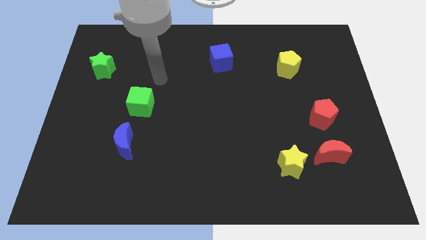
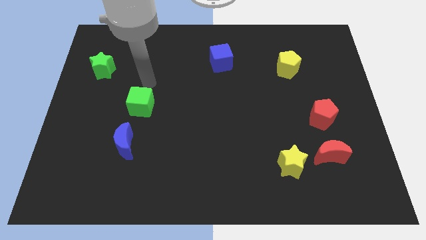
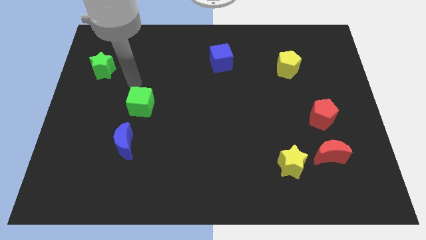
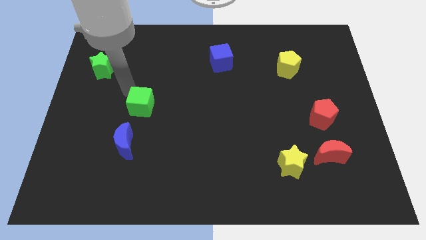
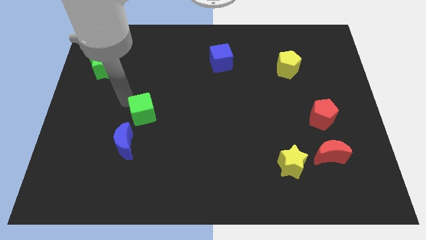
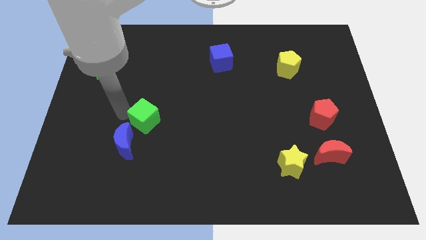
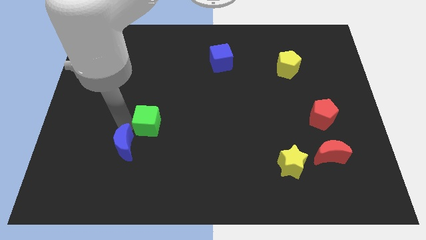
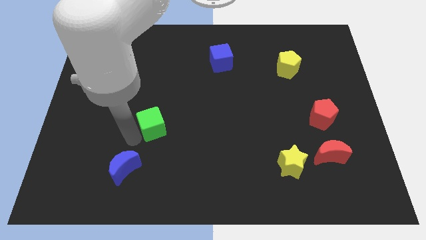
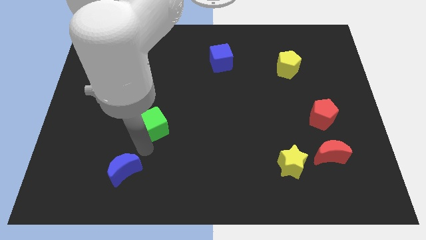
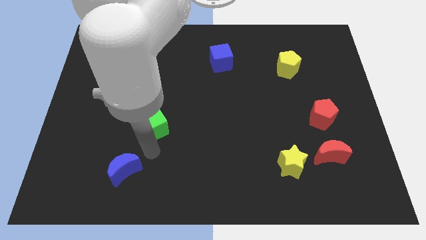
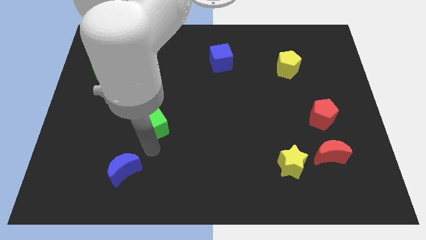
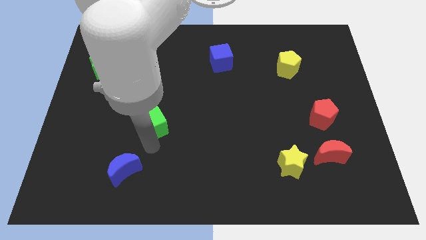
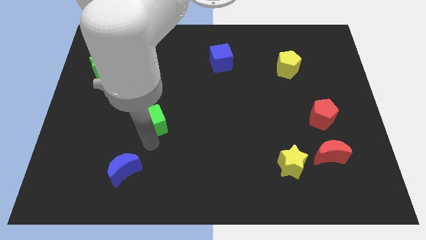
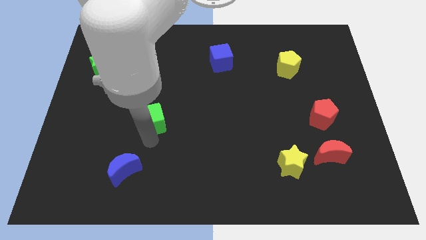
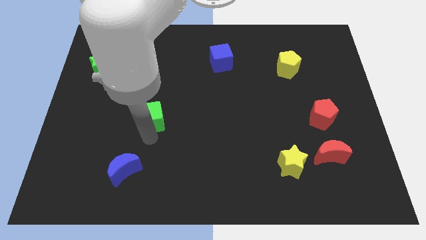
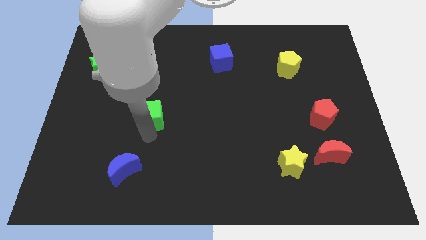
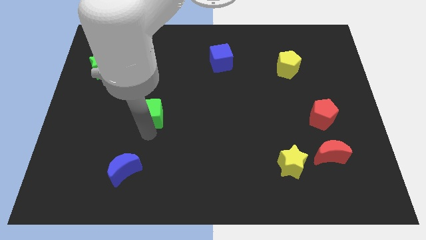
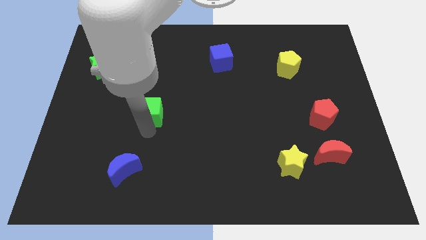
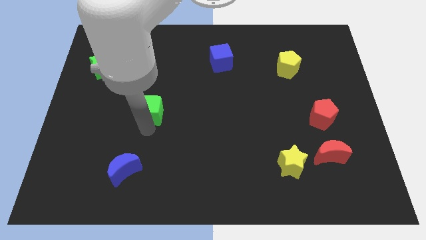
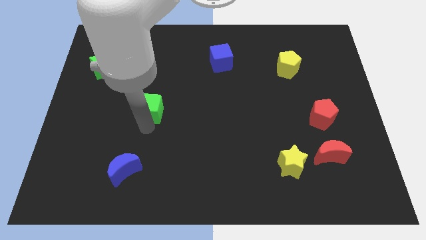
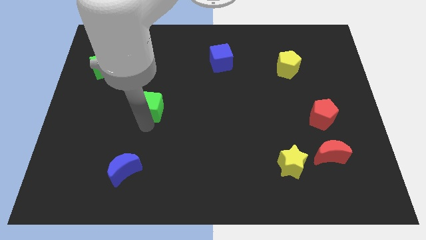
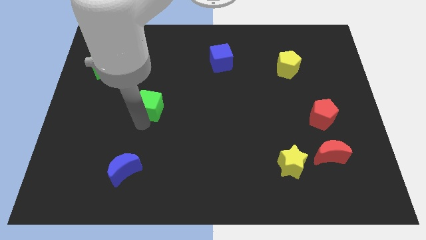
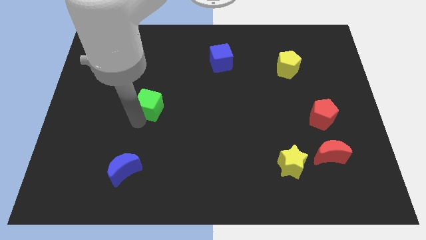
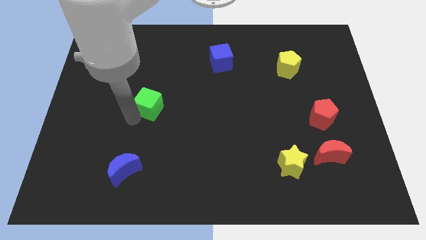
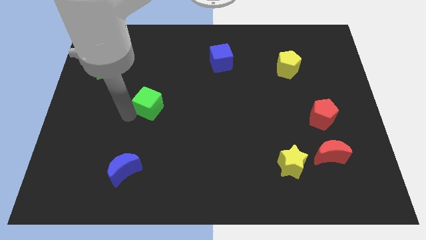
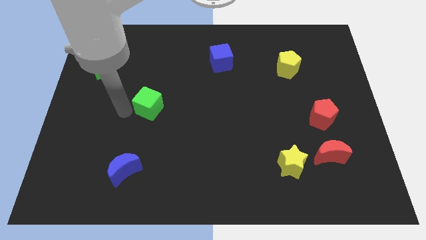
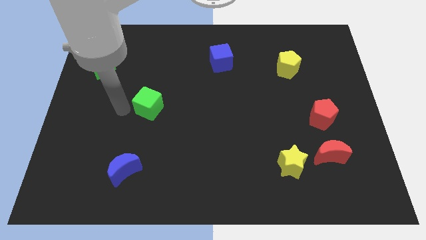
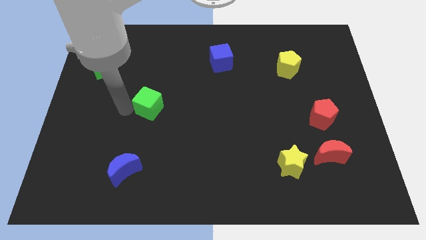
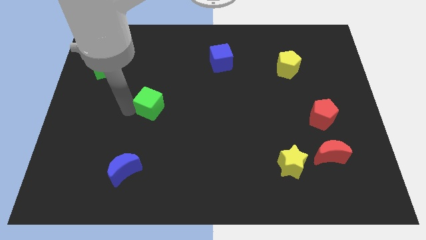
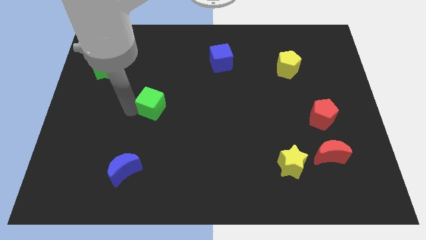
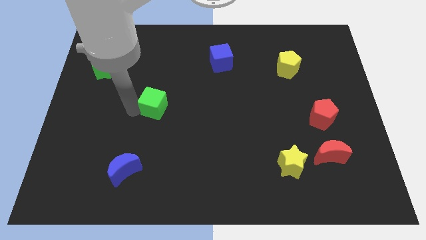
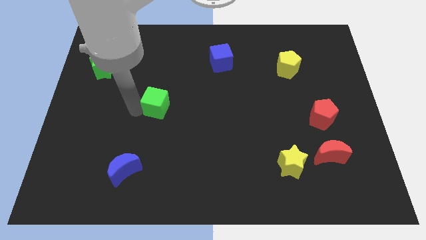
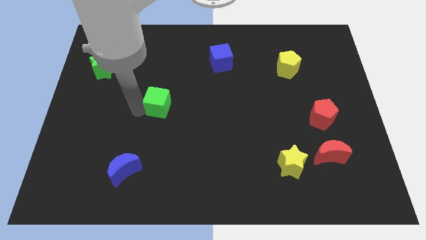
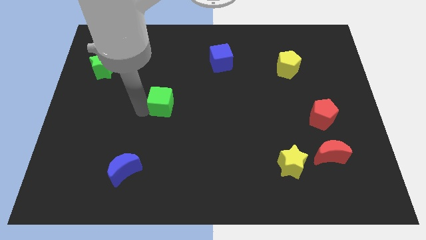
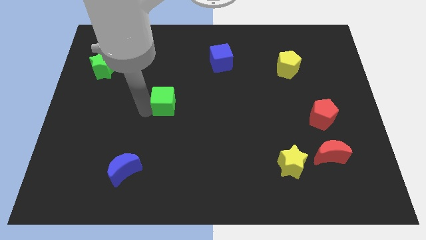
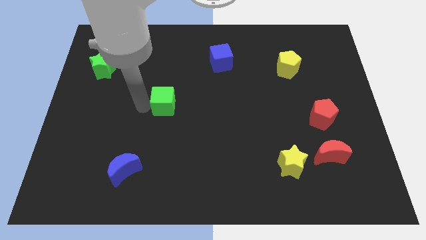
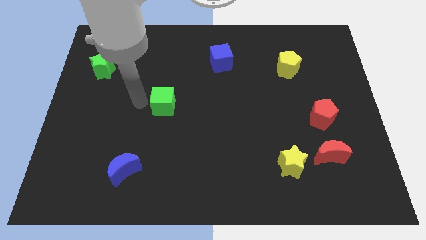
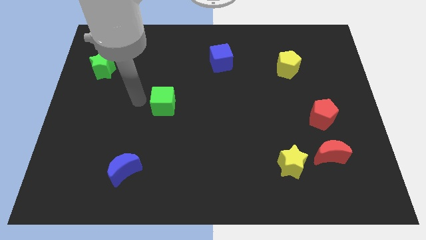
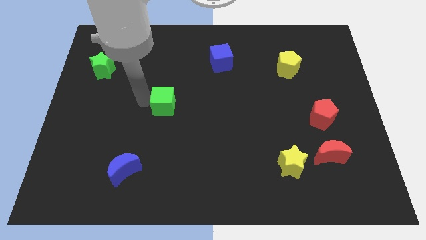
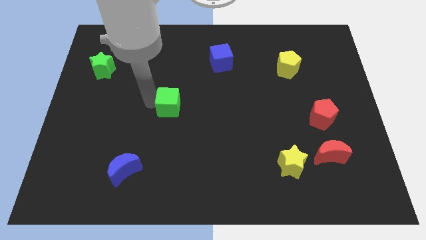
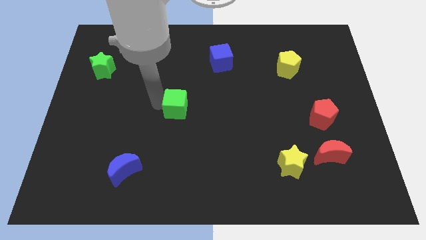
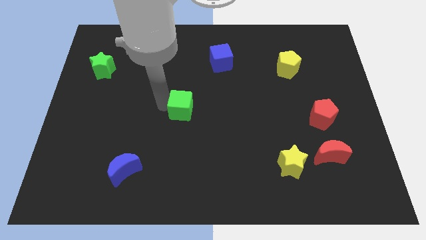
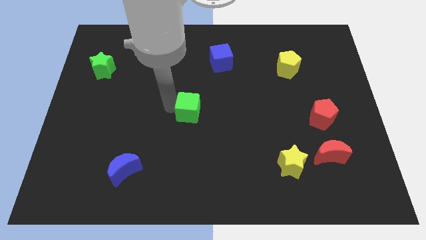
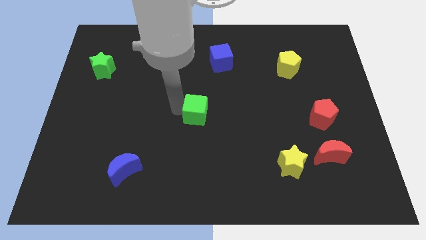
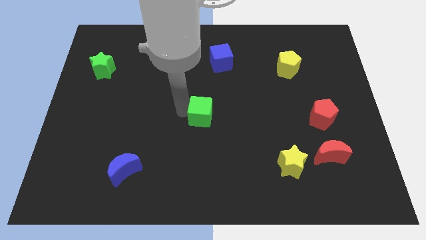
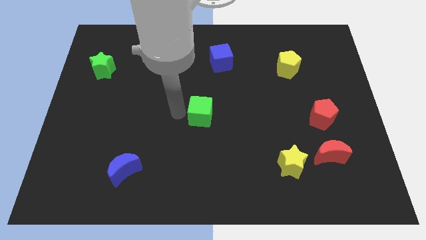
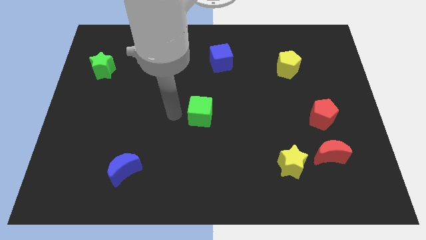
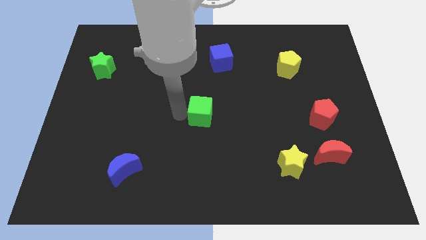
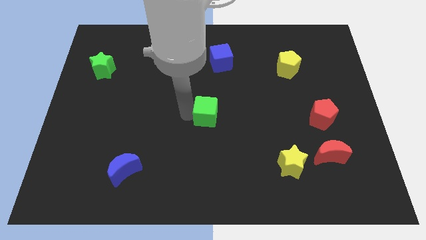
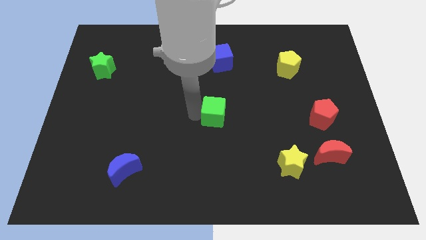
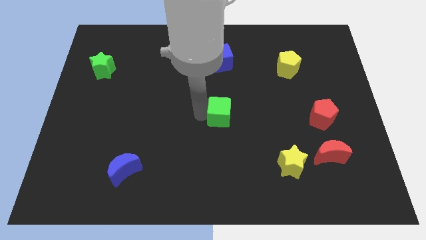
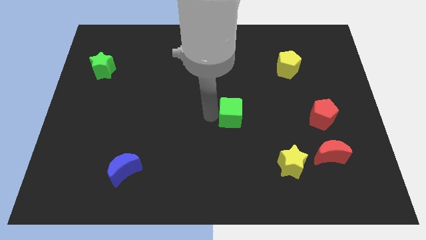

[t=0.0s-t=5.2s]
push the green cube to the right

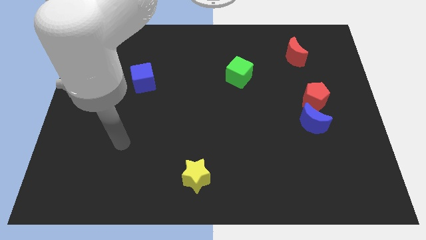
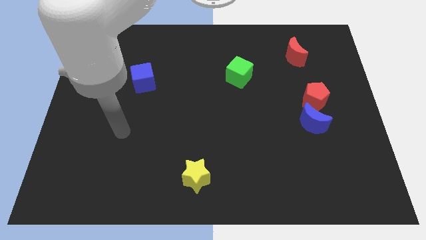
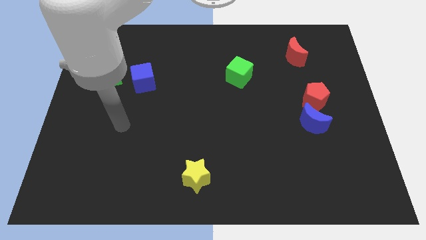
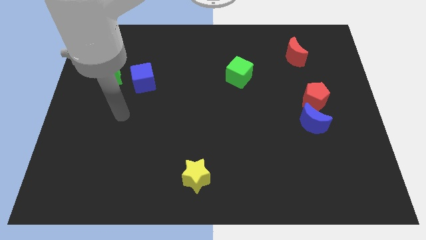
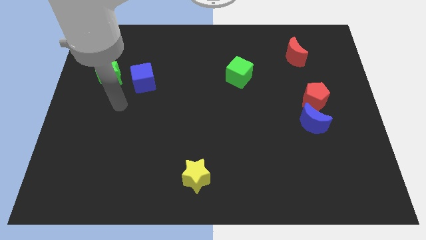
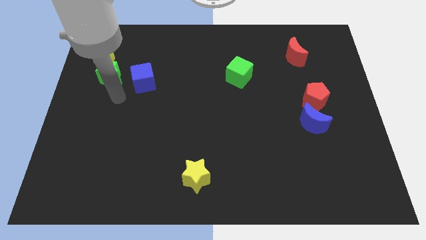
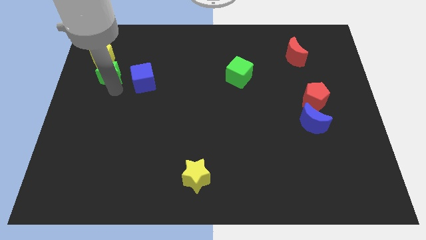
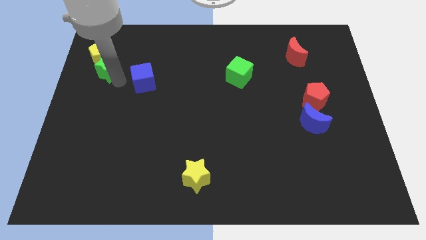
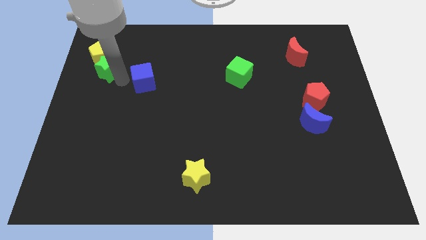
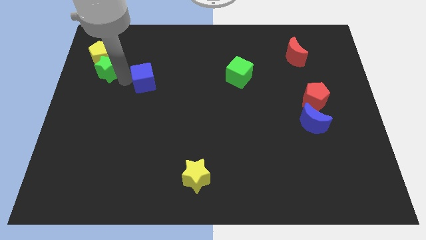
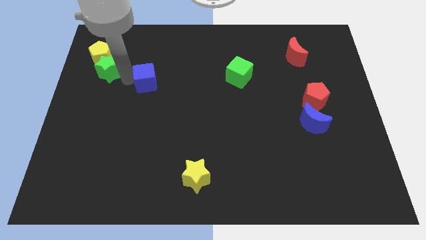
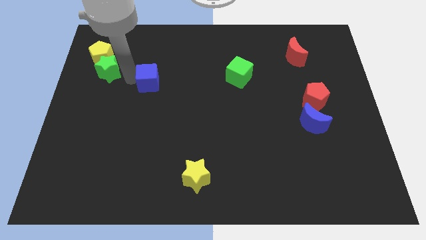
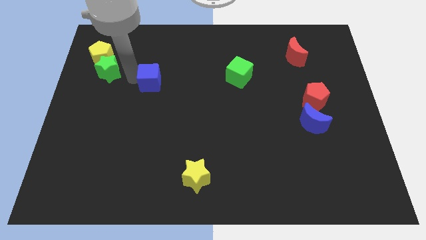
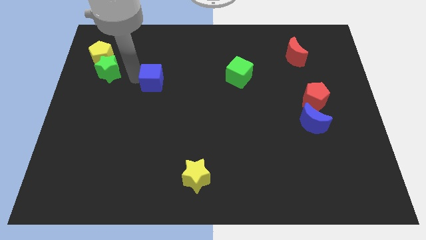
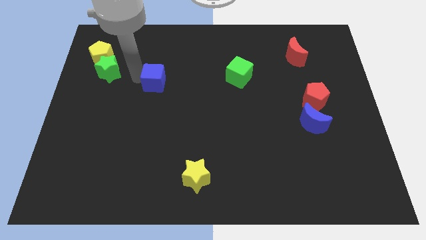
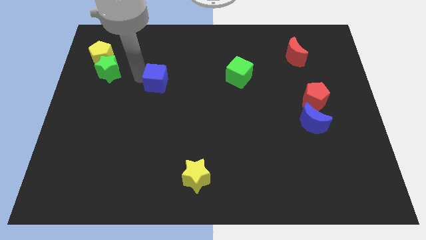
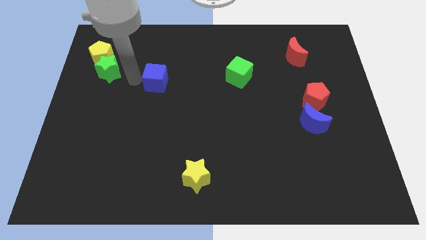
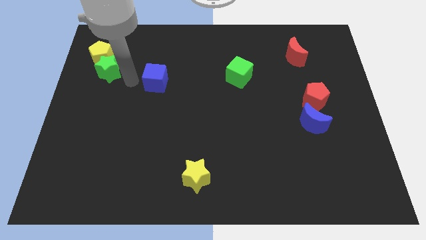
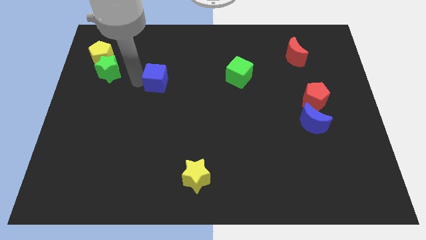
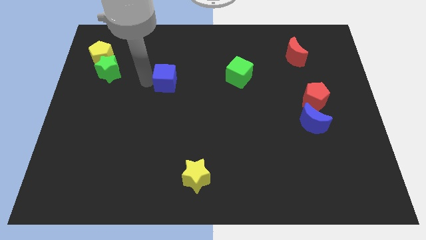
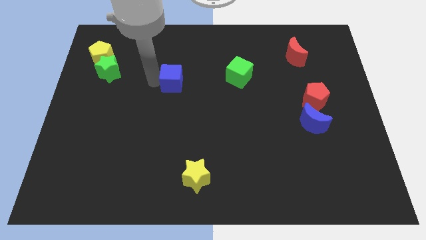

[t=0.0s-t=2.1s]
slightly slide the blue cube to the right

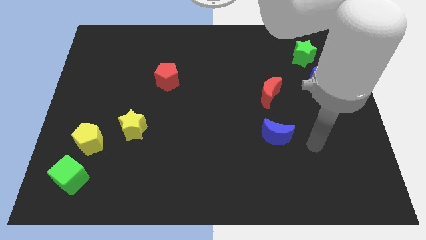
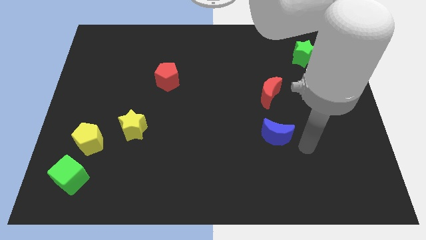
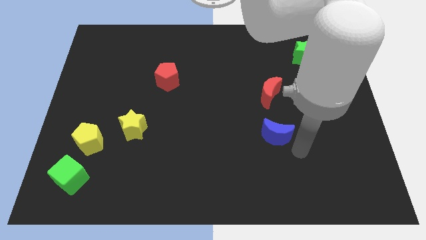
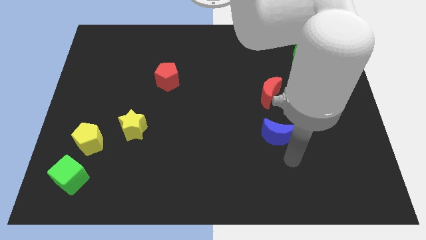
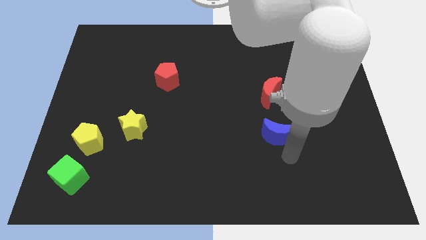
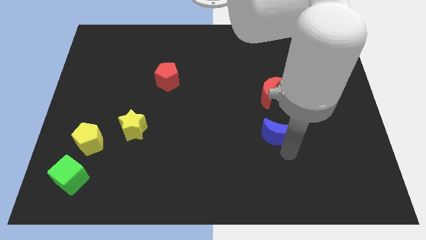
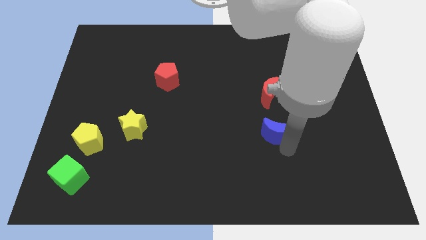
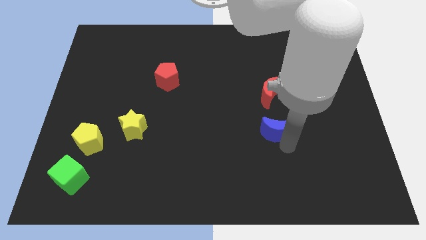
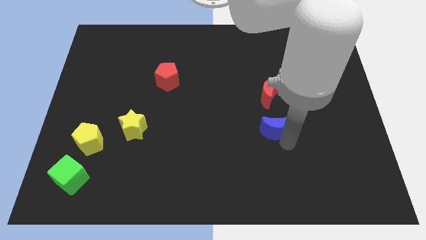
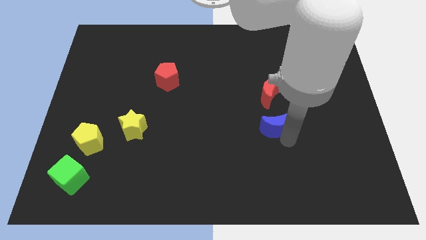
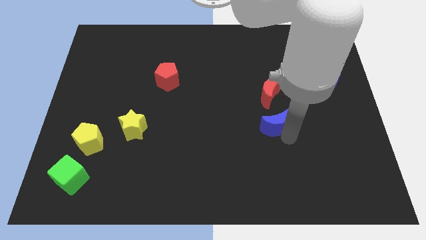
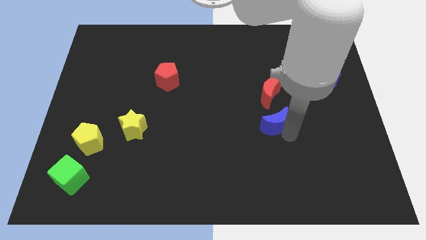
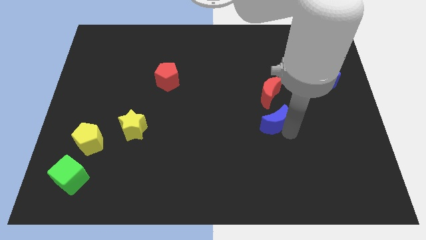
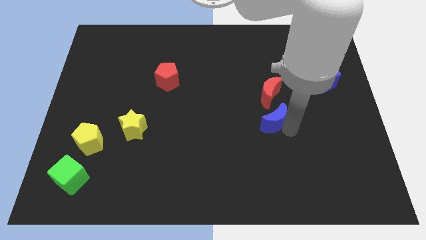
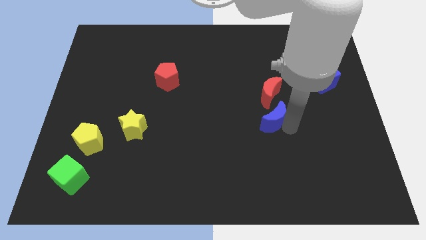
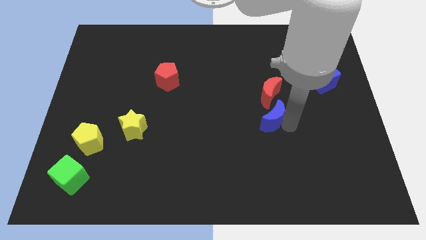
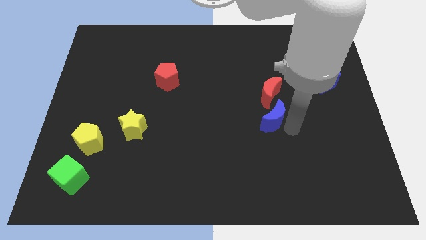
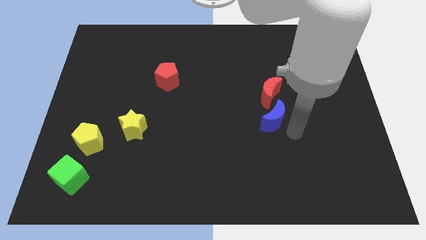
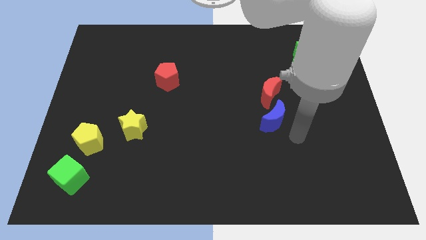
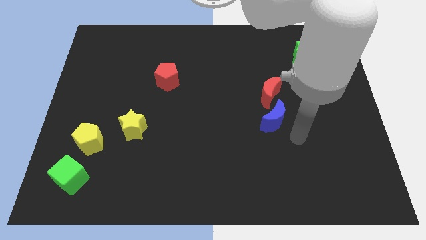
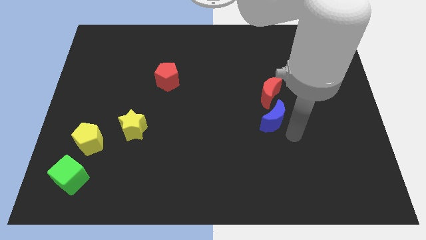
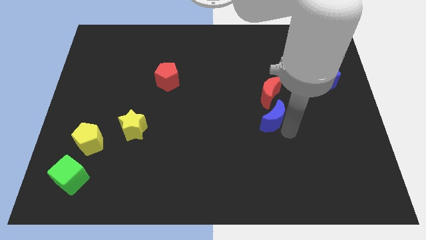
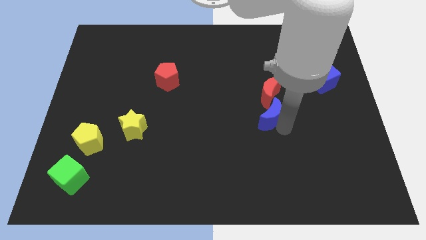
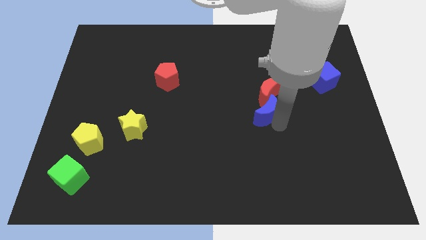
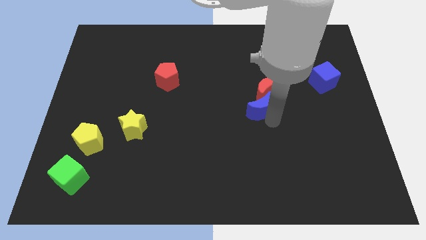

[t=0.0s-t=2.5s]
move the blue moon a little bit up
